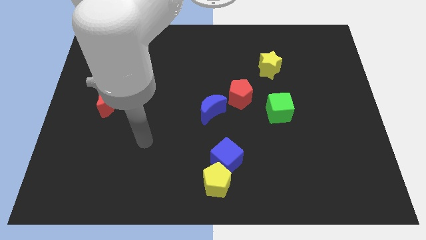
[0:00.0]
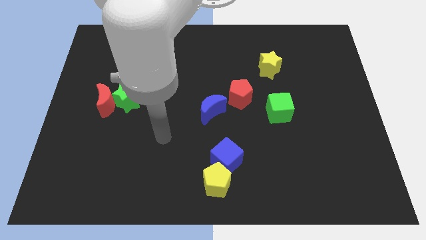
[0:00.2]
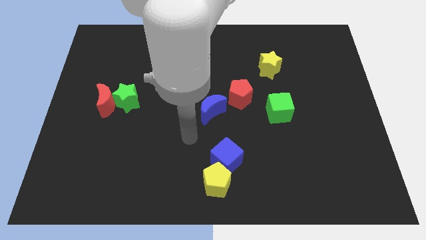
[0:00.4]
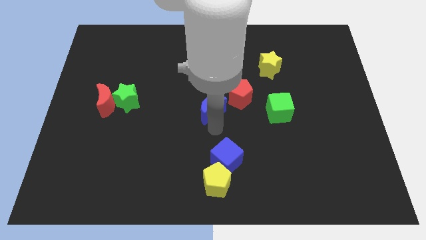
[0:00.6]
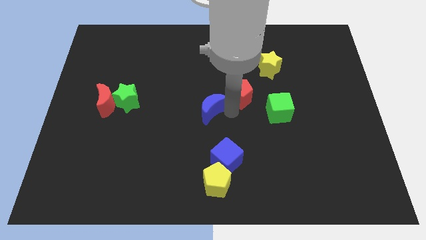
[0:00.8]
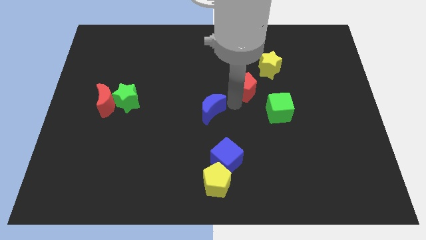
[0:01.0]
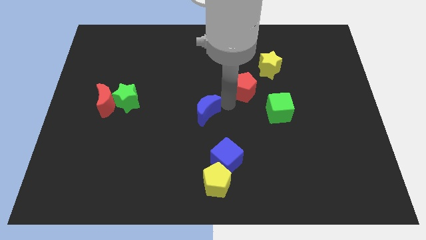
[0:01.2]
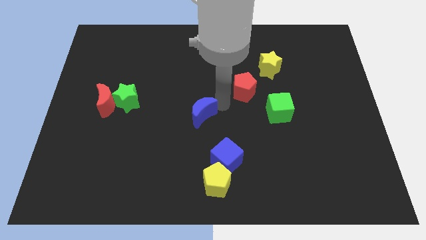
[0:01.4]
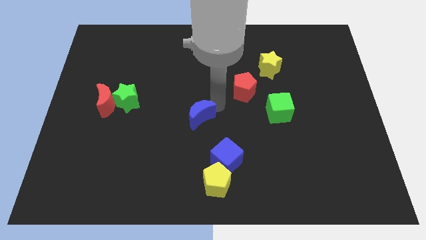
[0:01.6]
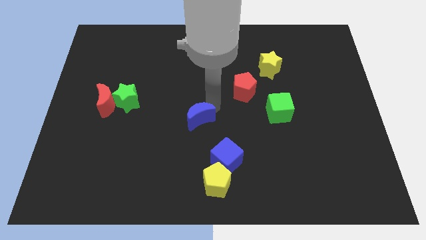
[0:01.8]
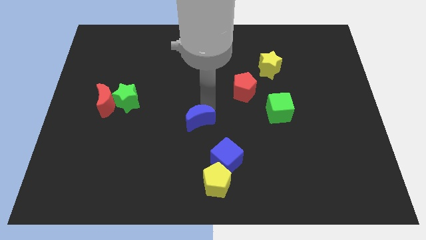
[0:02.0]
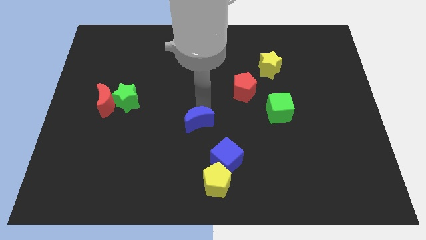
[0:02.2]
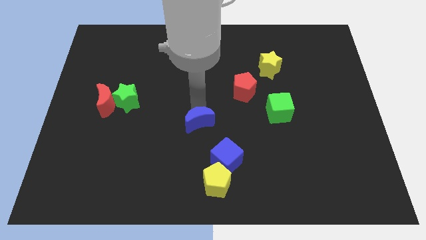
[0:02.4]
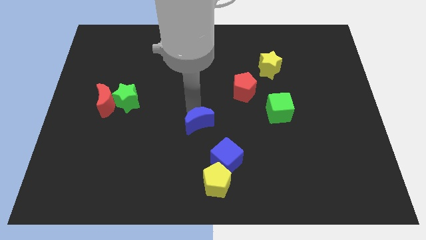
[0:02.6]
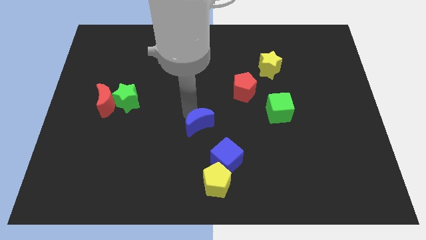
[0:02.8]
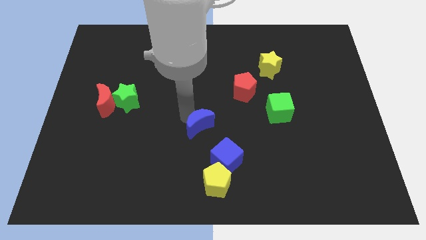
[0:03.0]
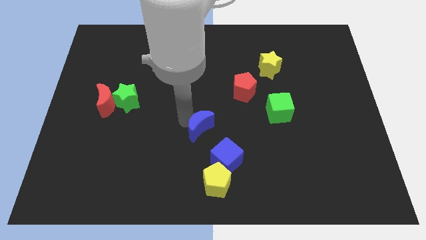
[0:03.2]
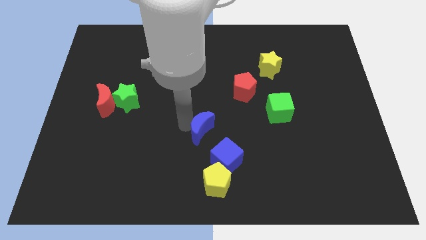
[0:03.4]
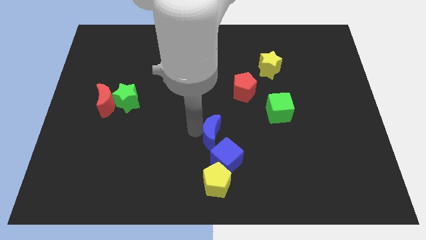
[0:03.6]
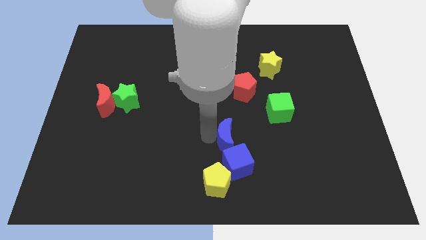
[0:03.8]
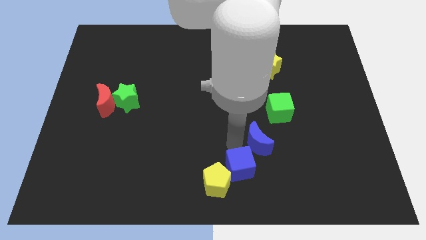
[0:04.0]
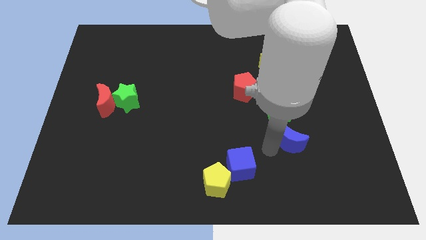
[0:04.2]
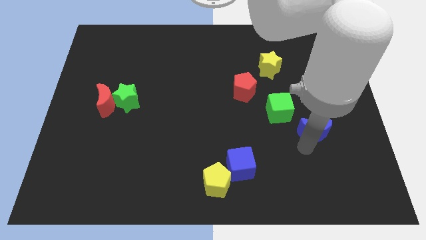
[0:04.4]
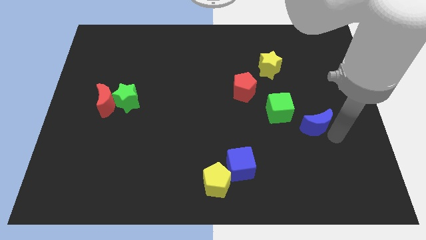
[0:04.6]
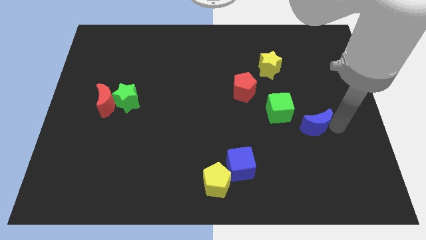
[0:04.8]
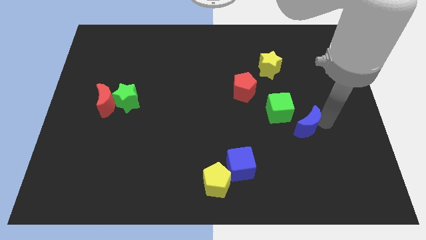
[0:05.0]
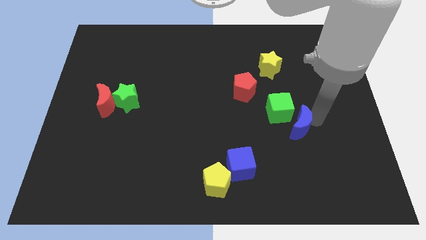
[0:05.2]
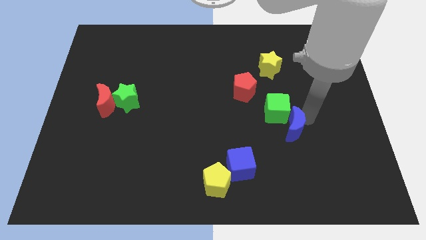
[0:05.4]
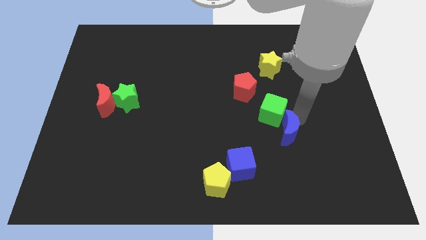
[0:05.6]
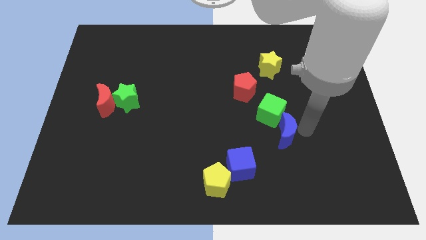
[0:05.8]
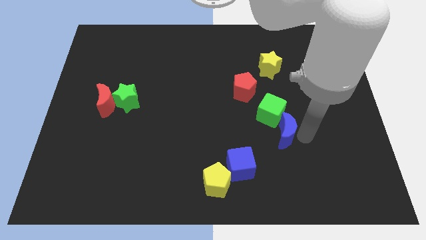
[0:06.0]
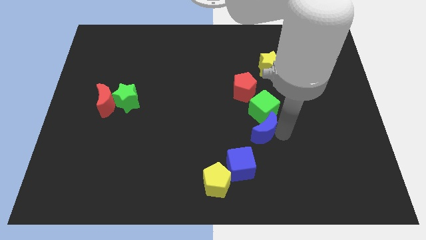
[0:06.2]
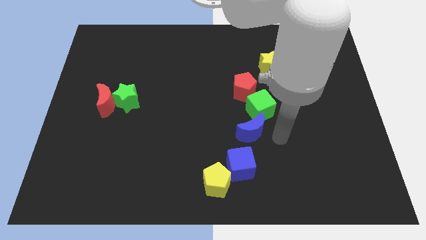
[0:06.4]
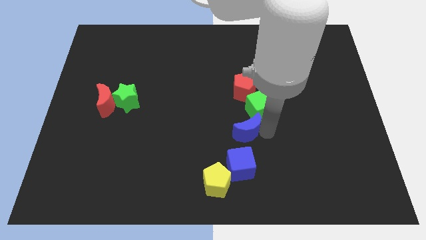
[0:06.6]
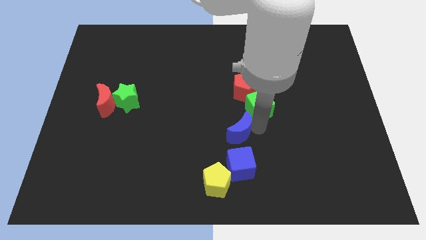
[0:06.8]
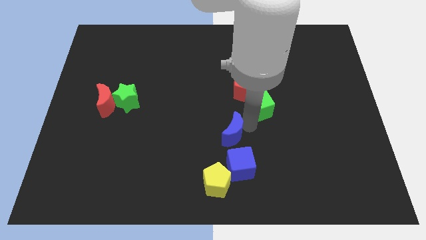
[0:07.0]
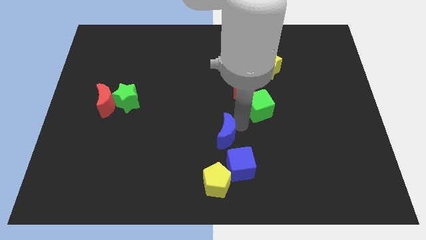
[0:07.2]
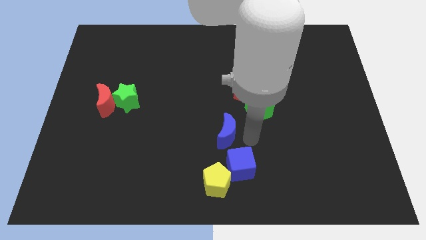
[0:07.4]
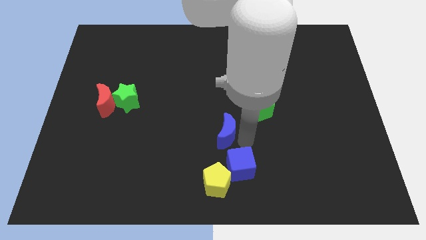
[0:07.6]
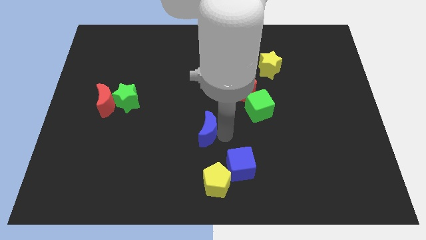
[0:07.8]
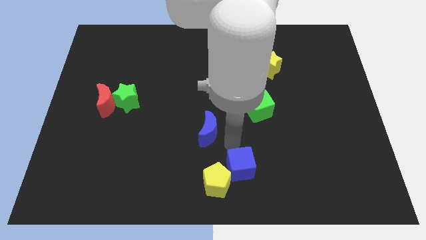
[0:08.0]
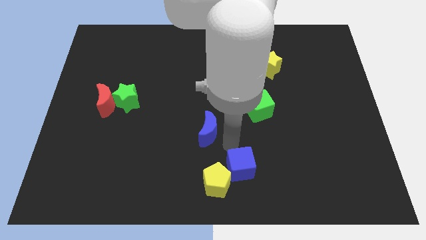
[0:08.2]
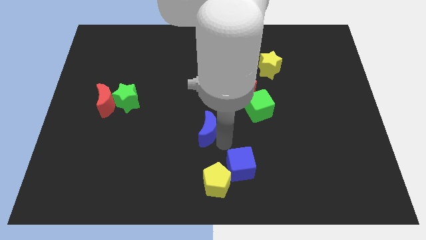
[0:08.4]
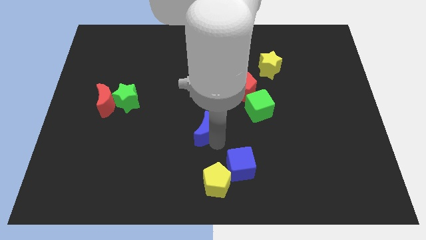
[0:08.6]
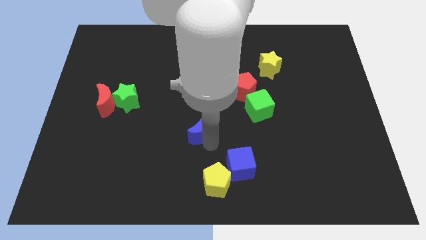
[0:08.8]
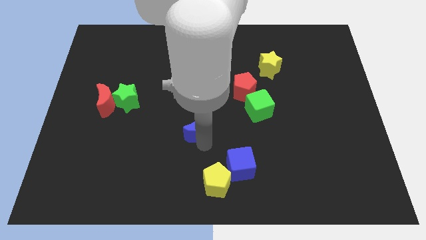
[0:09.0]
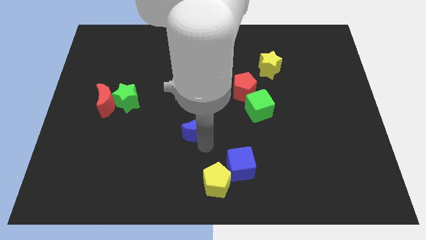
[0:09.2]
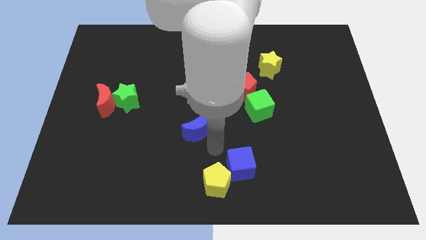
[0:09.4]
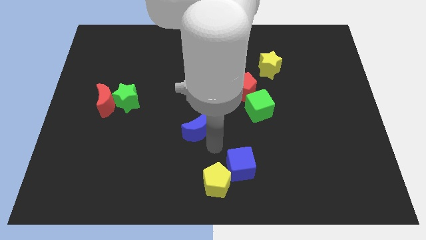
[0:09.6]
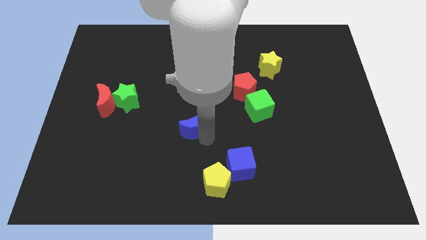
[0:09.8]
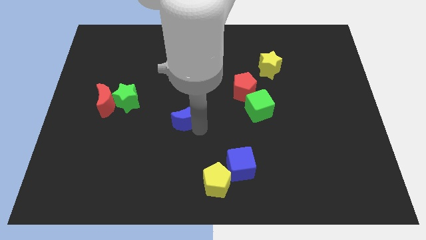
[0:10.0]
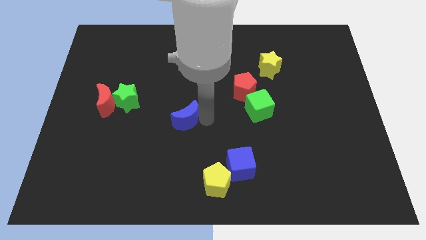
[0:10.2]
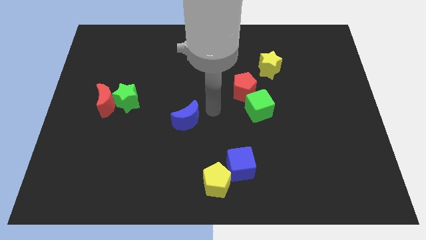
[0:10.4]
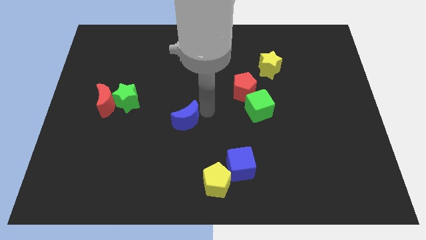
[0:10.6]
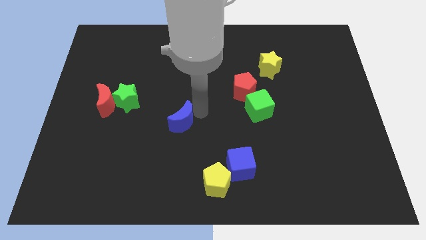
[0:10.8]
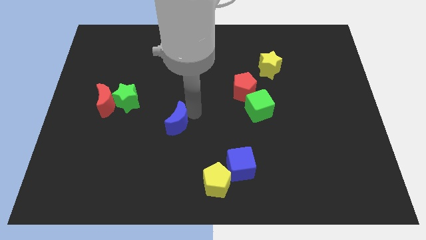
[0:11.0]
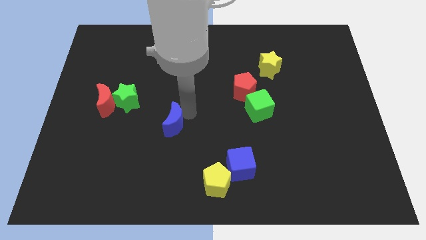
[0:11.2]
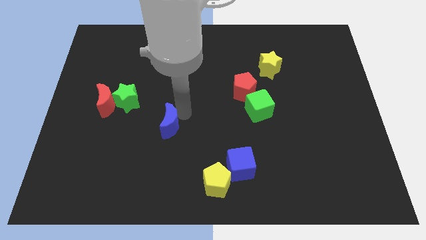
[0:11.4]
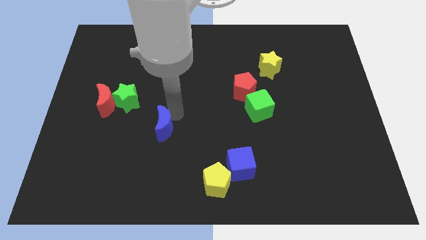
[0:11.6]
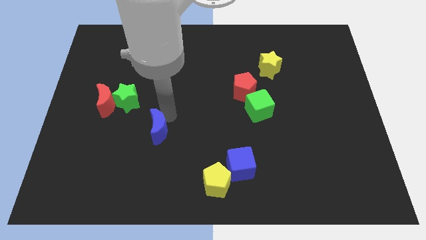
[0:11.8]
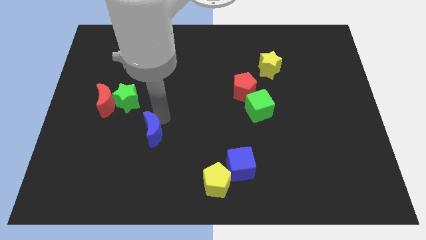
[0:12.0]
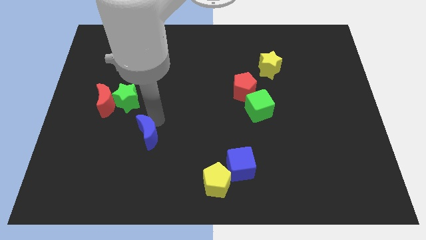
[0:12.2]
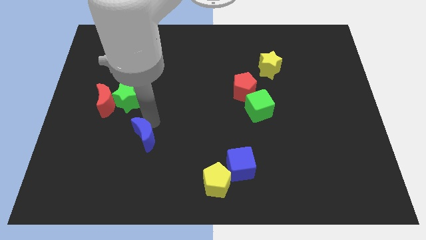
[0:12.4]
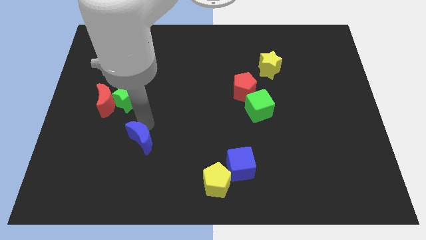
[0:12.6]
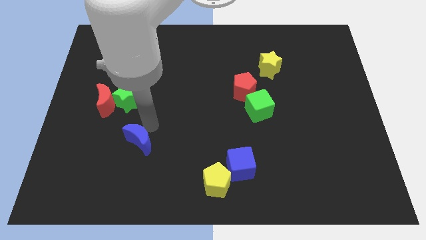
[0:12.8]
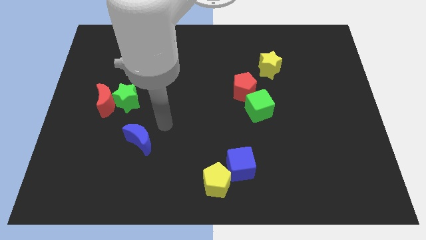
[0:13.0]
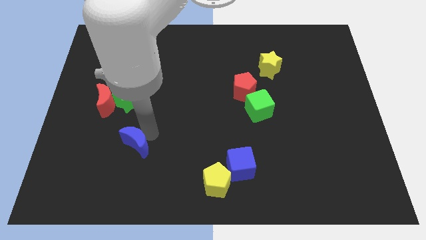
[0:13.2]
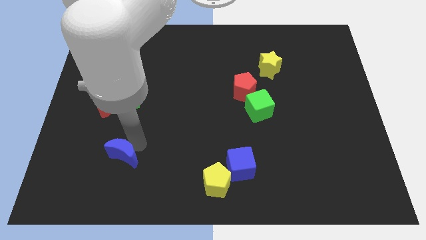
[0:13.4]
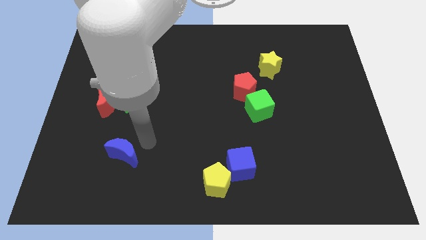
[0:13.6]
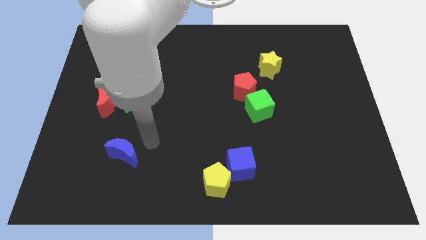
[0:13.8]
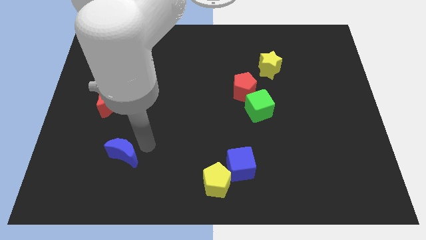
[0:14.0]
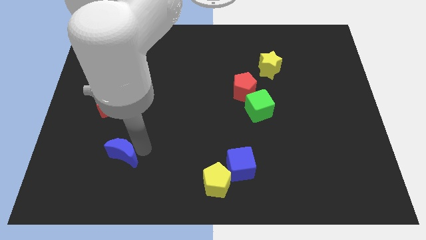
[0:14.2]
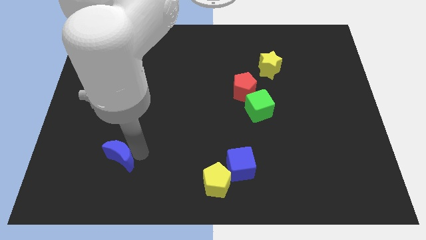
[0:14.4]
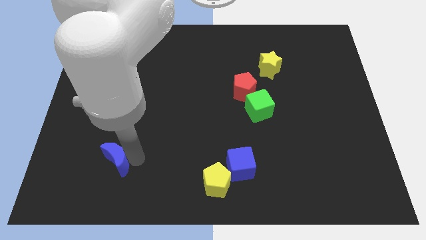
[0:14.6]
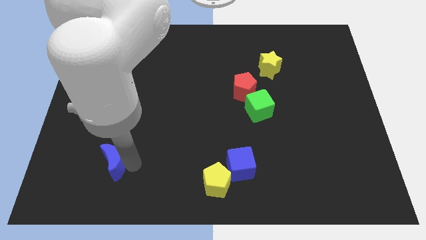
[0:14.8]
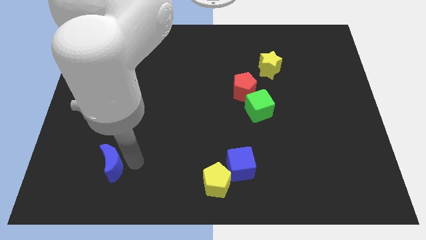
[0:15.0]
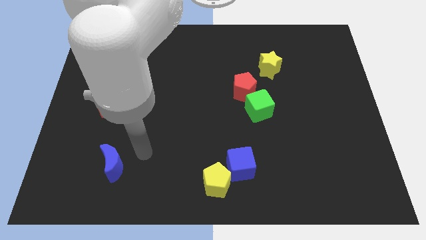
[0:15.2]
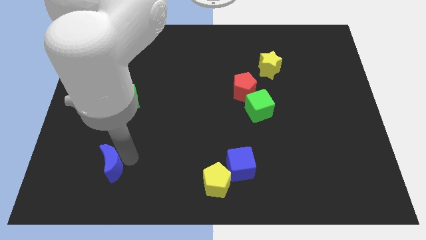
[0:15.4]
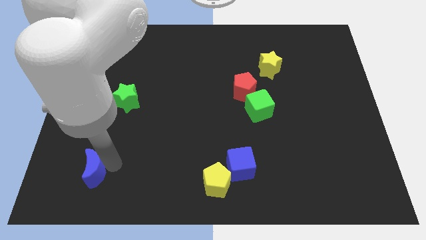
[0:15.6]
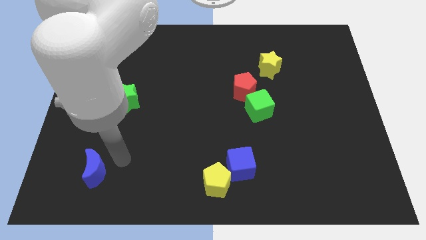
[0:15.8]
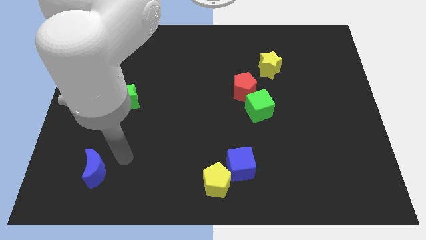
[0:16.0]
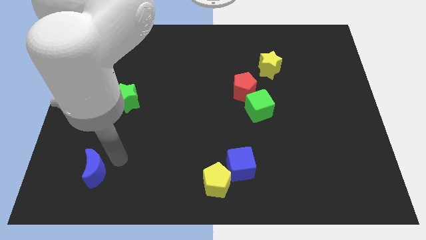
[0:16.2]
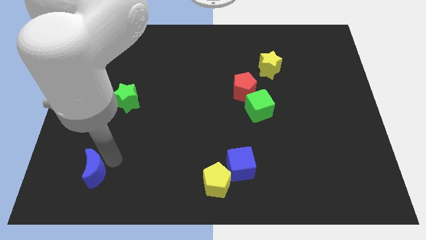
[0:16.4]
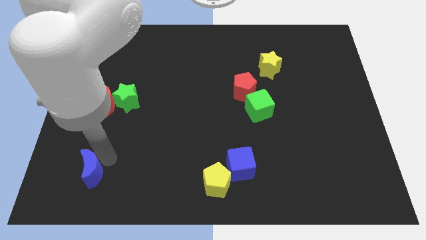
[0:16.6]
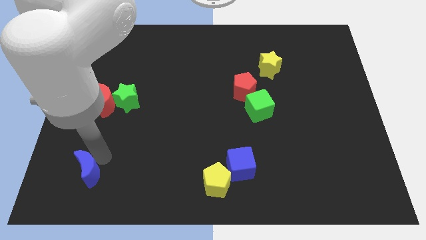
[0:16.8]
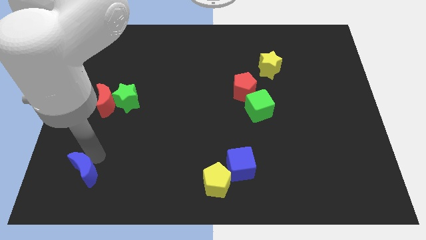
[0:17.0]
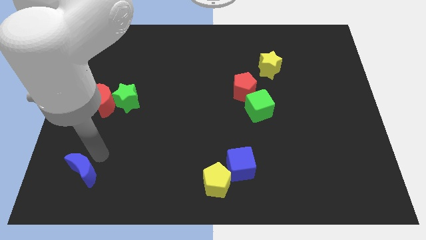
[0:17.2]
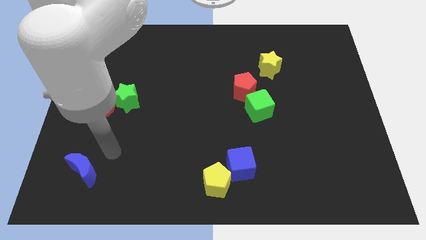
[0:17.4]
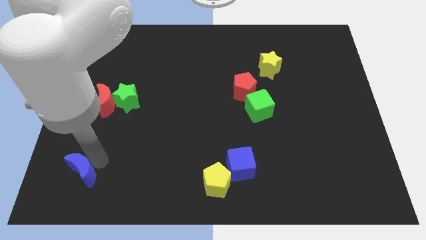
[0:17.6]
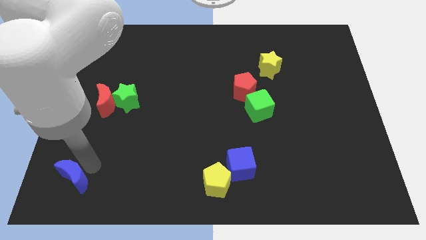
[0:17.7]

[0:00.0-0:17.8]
push the blue moon to the lower left corner
